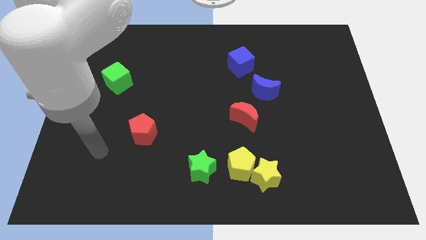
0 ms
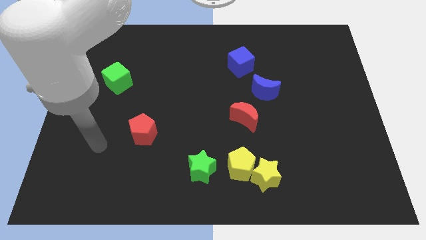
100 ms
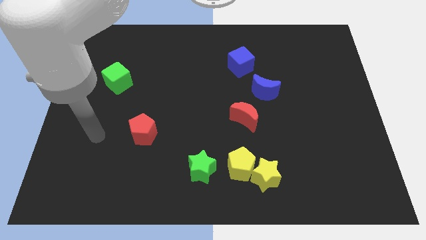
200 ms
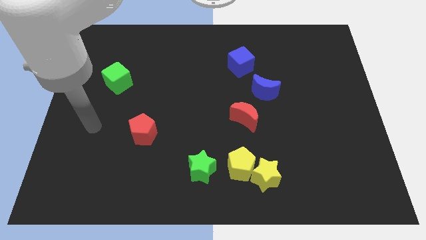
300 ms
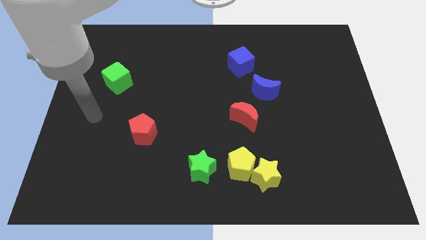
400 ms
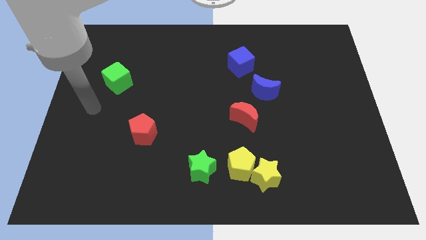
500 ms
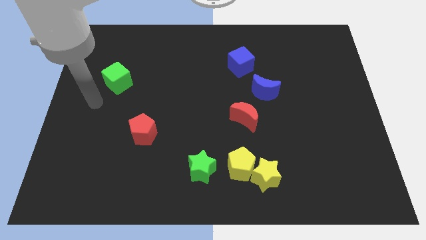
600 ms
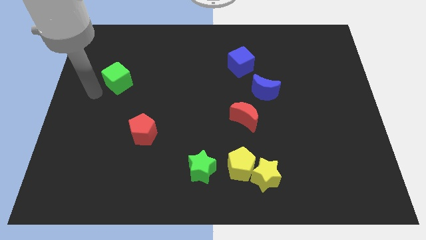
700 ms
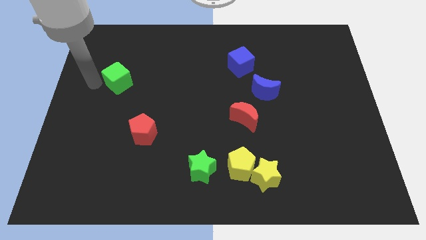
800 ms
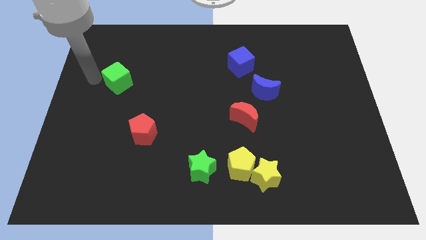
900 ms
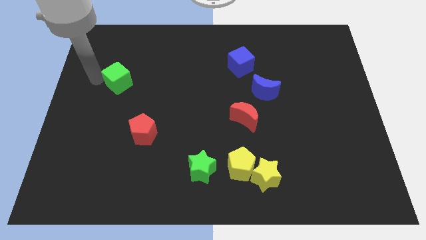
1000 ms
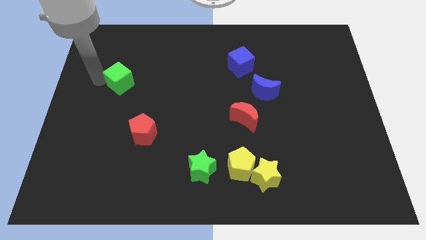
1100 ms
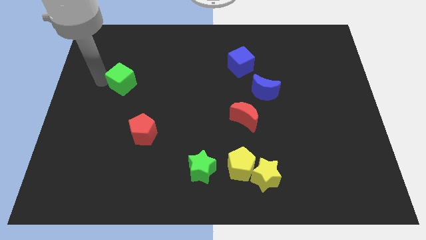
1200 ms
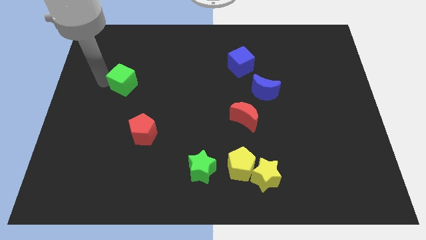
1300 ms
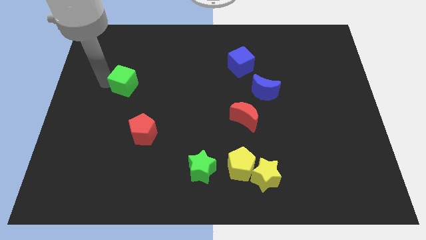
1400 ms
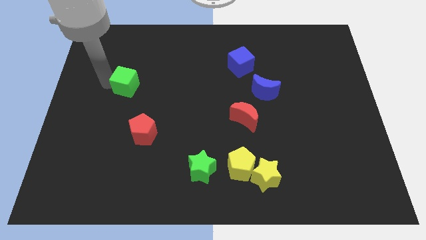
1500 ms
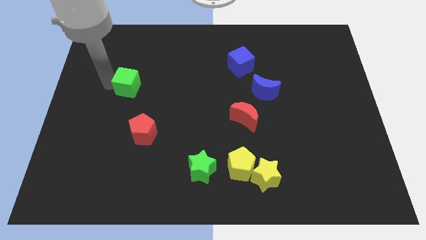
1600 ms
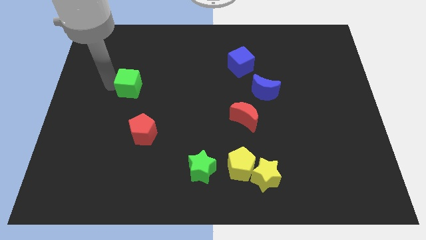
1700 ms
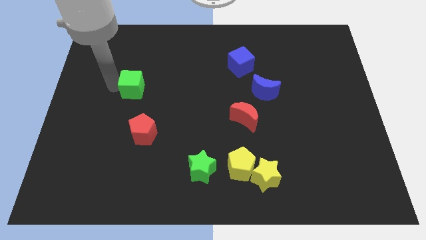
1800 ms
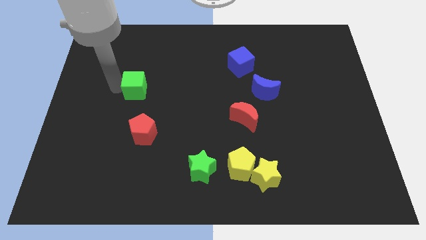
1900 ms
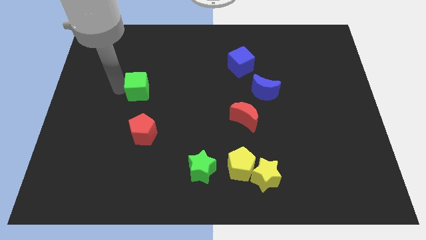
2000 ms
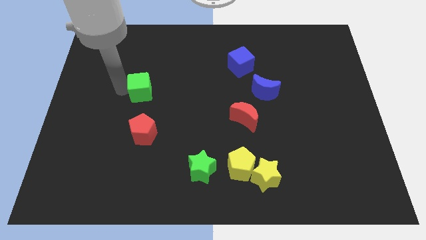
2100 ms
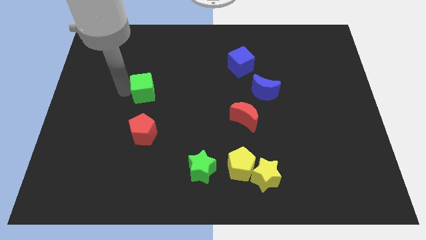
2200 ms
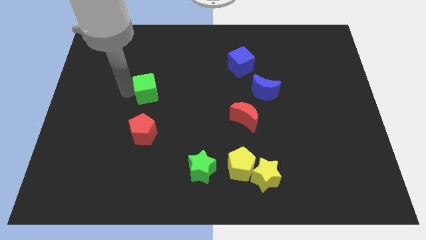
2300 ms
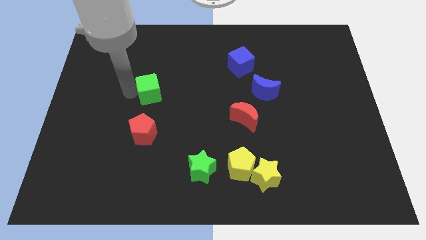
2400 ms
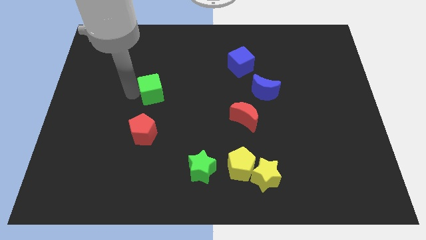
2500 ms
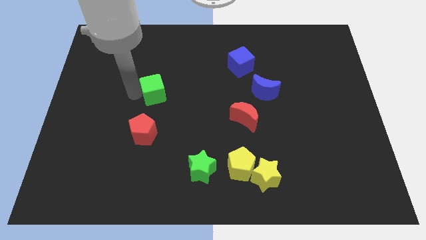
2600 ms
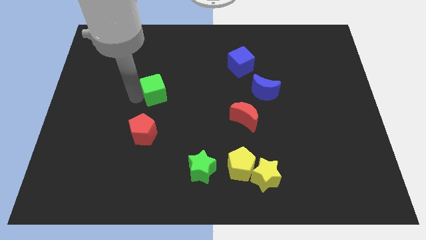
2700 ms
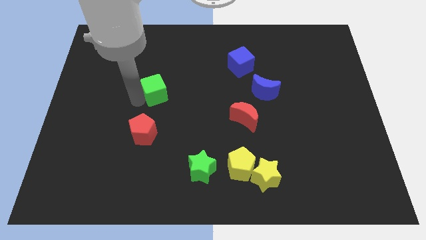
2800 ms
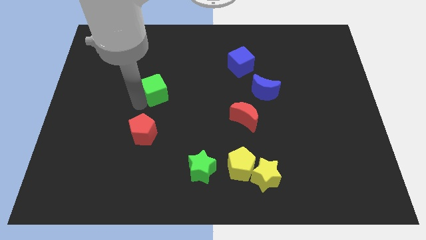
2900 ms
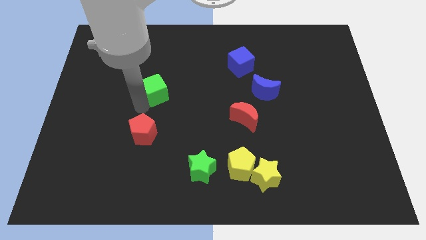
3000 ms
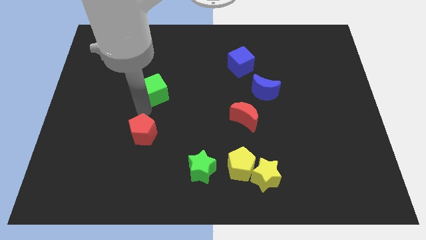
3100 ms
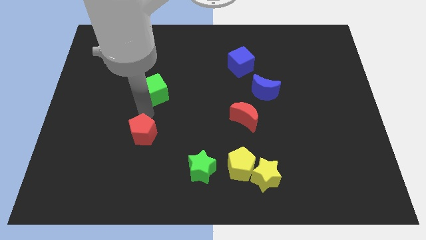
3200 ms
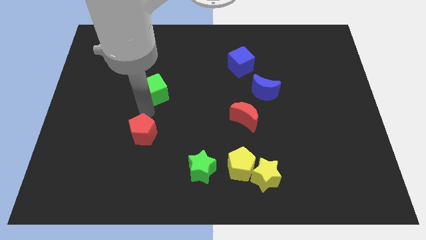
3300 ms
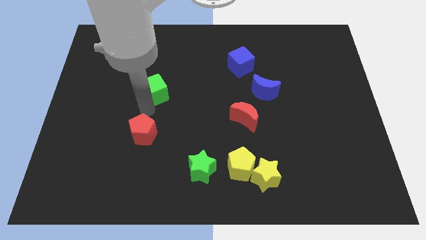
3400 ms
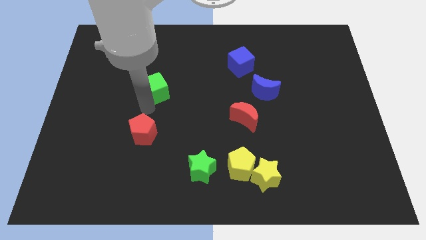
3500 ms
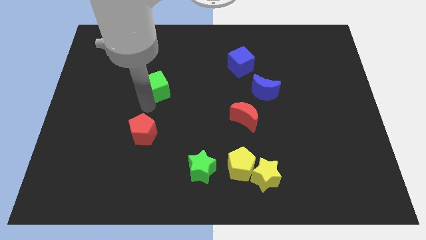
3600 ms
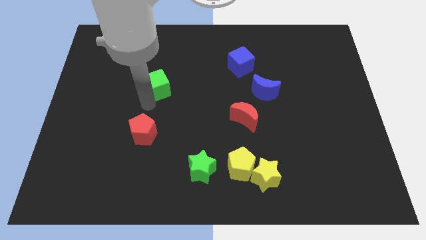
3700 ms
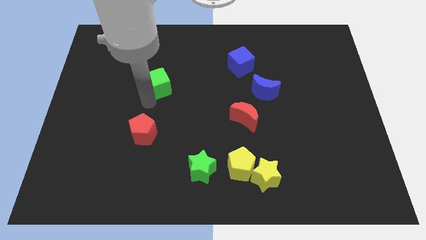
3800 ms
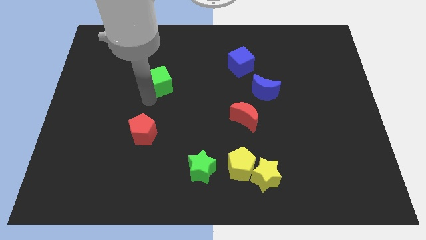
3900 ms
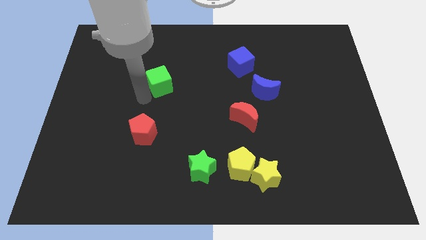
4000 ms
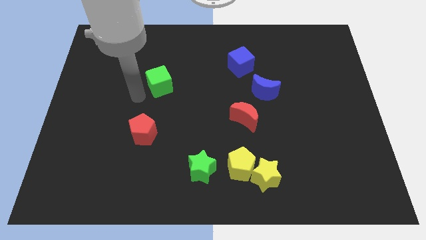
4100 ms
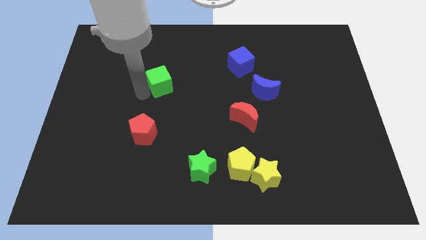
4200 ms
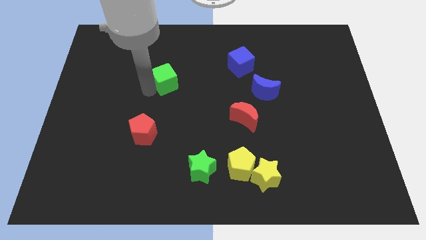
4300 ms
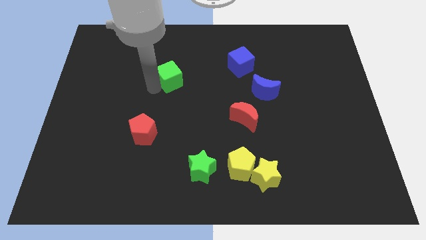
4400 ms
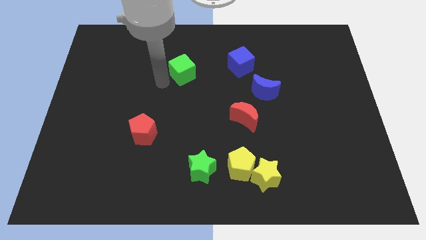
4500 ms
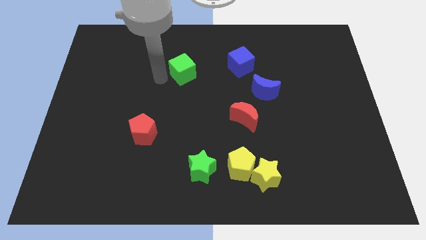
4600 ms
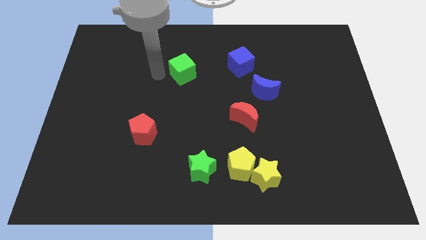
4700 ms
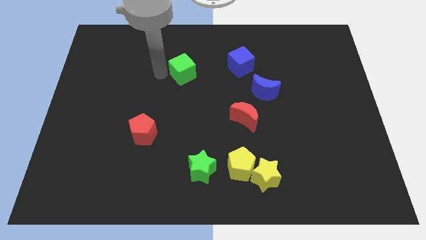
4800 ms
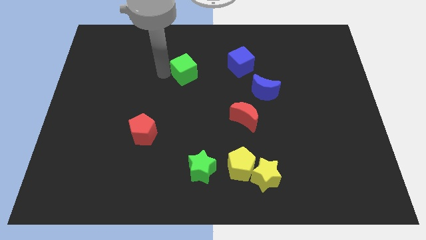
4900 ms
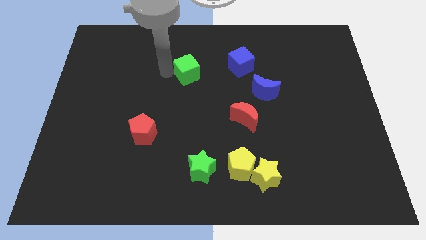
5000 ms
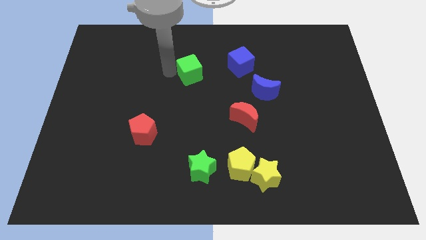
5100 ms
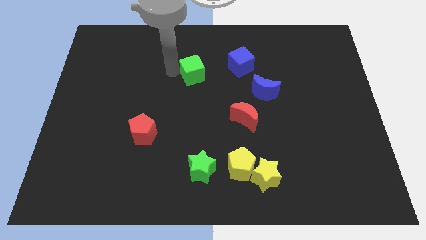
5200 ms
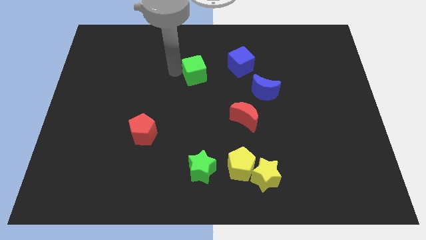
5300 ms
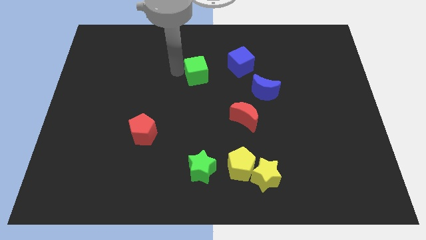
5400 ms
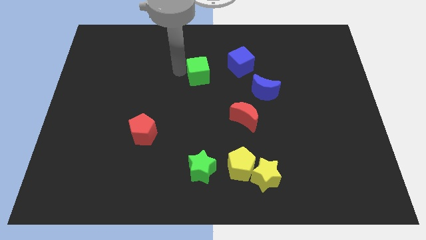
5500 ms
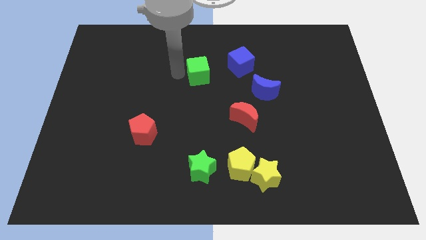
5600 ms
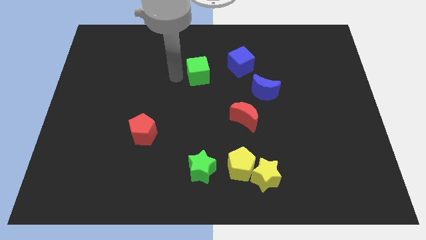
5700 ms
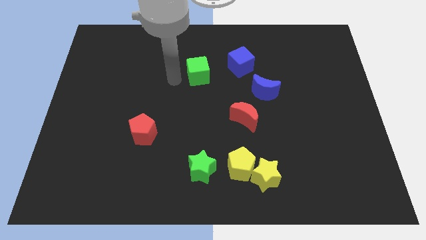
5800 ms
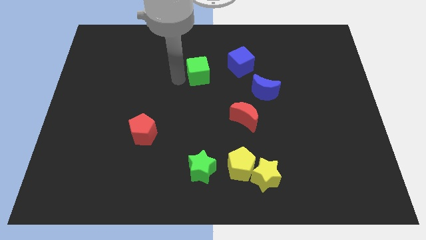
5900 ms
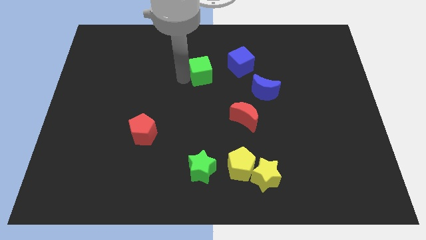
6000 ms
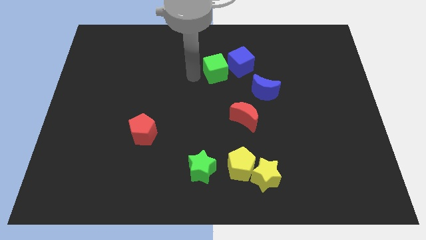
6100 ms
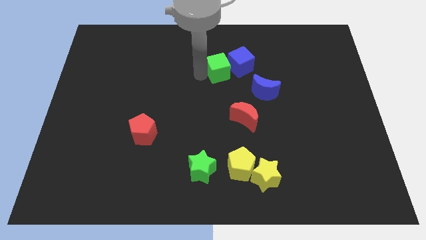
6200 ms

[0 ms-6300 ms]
move the green cube close to the blue cube
